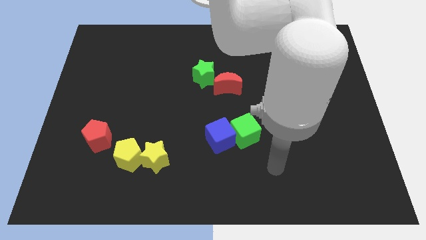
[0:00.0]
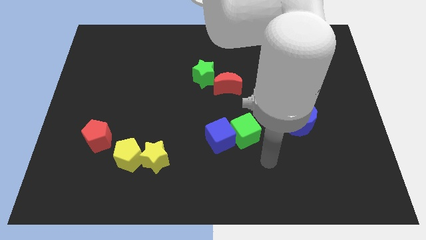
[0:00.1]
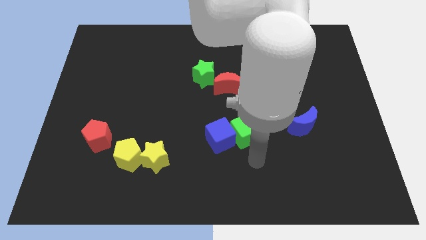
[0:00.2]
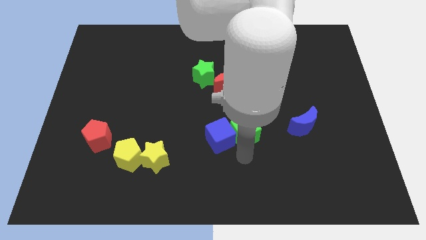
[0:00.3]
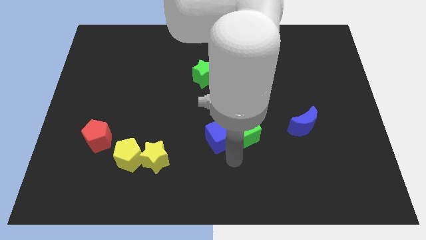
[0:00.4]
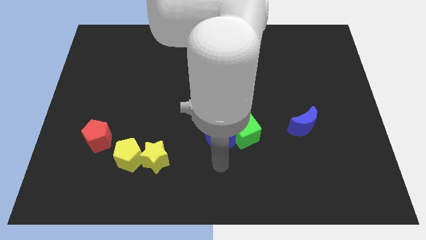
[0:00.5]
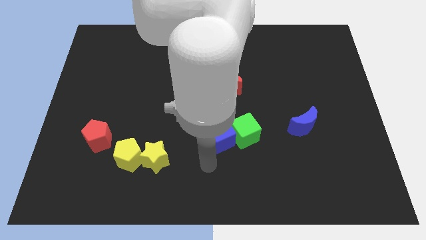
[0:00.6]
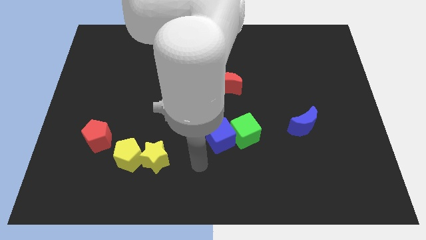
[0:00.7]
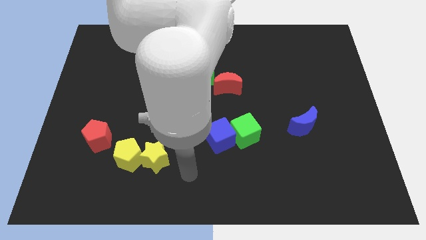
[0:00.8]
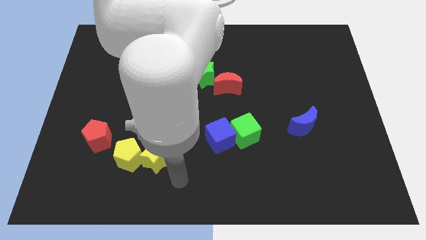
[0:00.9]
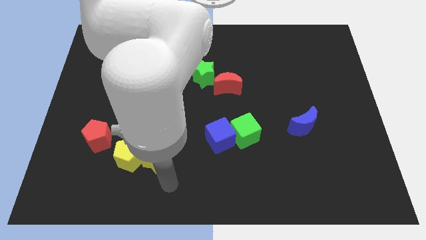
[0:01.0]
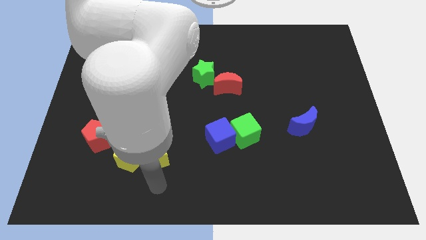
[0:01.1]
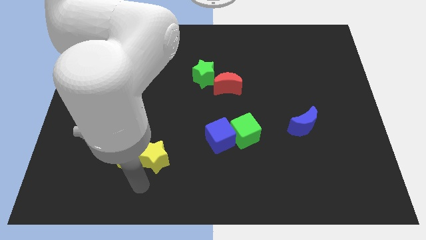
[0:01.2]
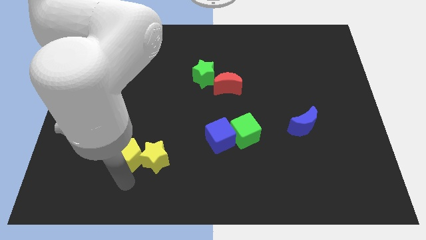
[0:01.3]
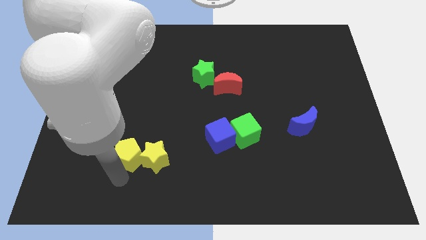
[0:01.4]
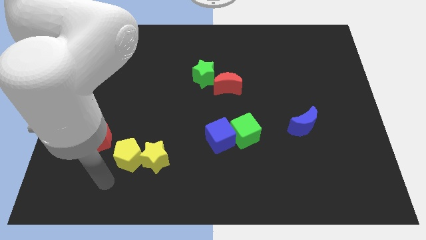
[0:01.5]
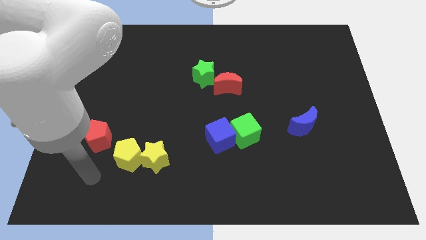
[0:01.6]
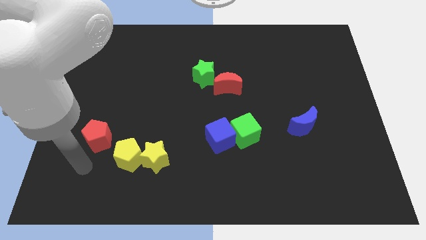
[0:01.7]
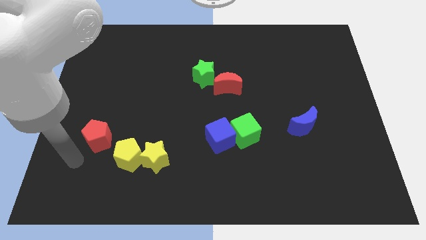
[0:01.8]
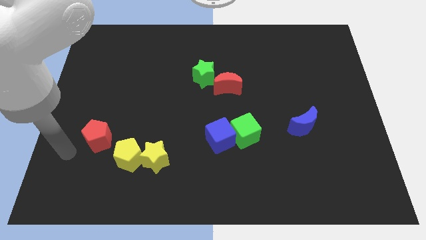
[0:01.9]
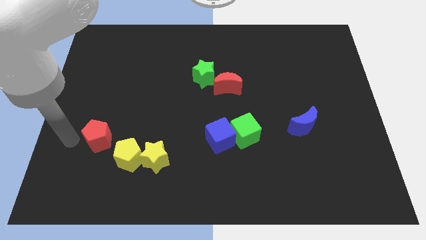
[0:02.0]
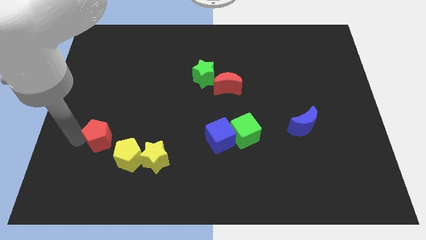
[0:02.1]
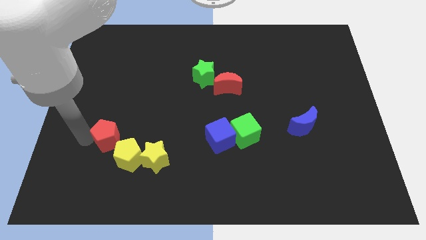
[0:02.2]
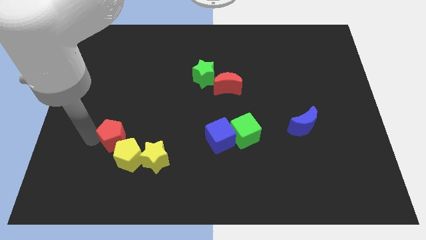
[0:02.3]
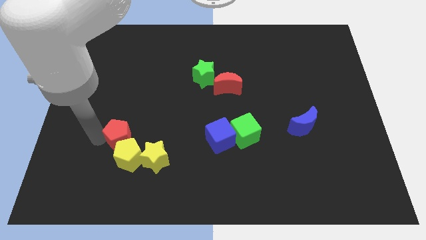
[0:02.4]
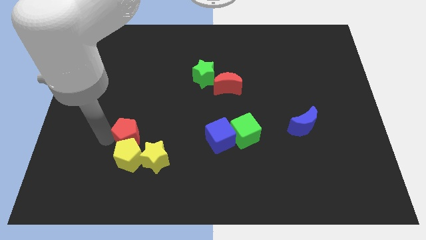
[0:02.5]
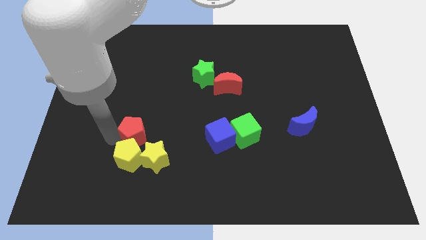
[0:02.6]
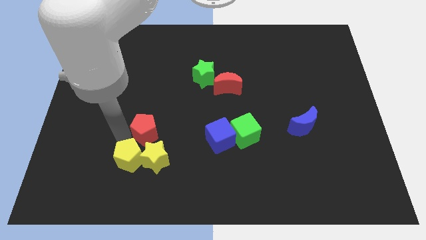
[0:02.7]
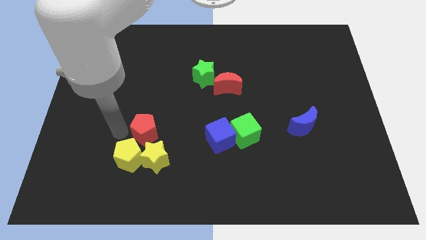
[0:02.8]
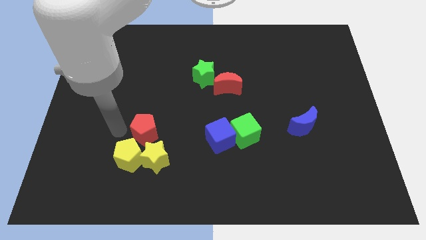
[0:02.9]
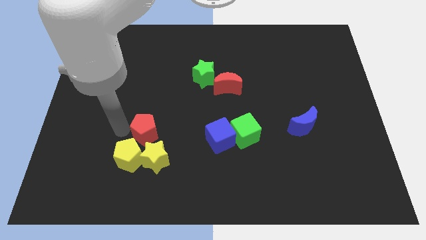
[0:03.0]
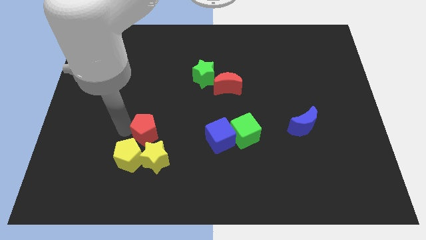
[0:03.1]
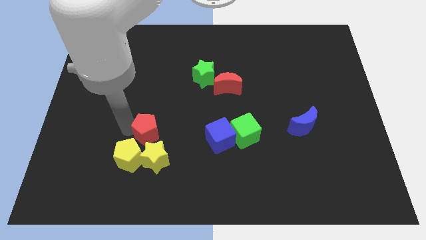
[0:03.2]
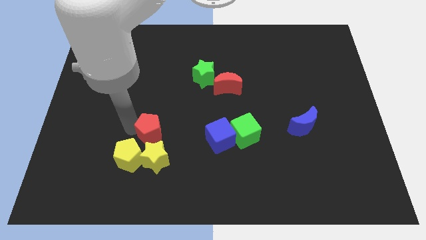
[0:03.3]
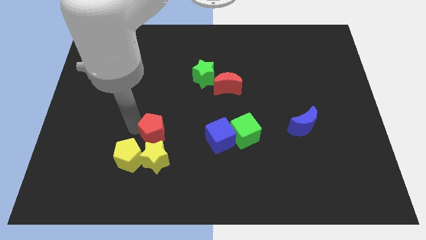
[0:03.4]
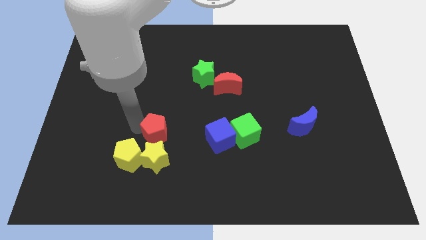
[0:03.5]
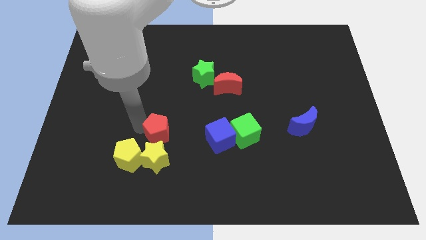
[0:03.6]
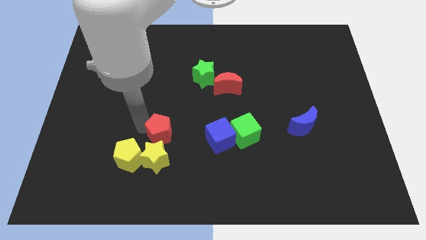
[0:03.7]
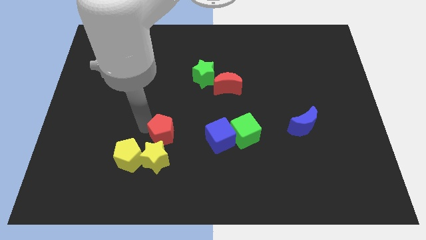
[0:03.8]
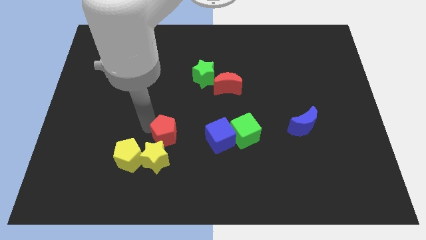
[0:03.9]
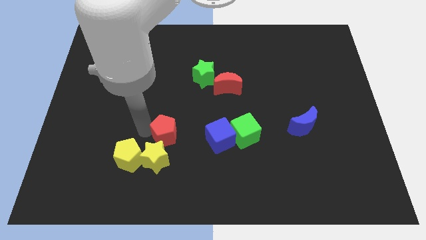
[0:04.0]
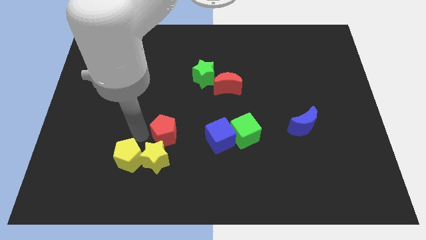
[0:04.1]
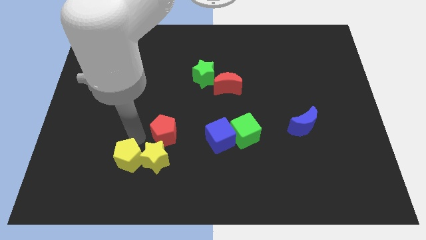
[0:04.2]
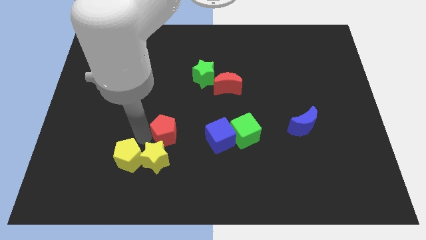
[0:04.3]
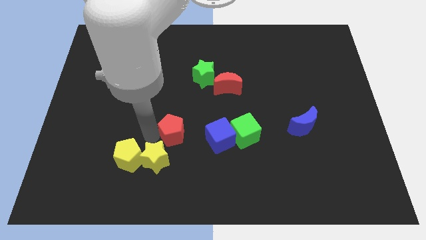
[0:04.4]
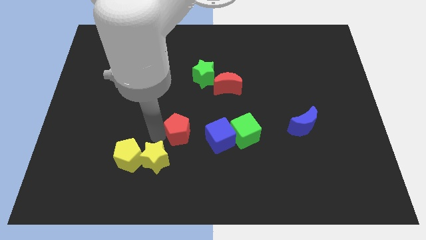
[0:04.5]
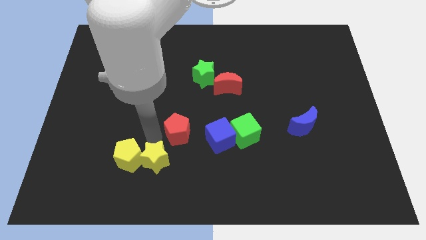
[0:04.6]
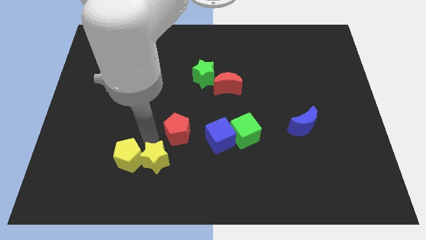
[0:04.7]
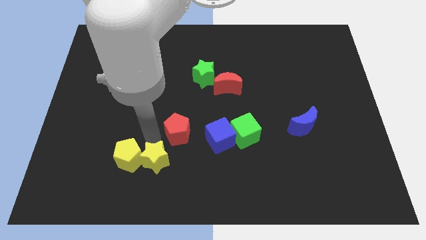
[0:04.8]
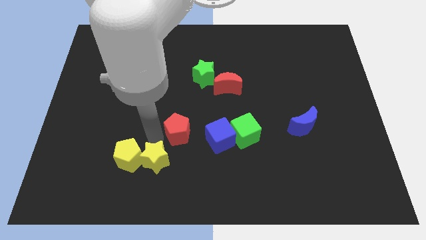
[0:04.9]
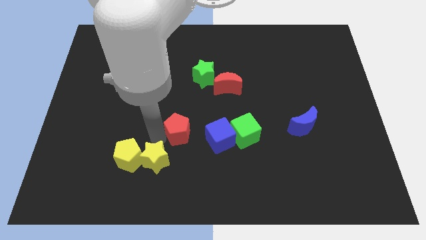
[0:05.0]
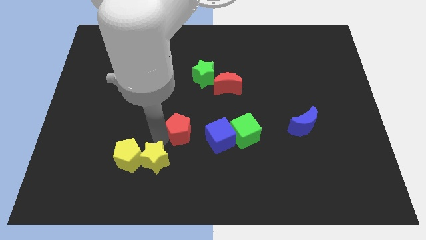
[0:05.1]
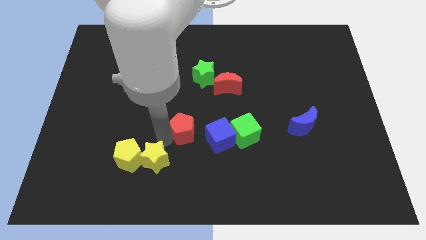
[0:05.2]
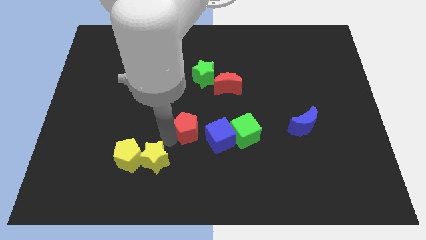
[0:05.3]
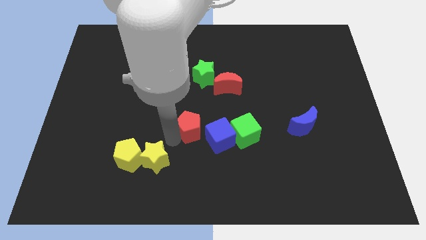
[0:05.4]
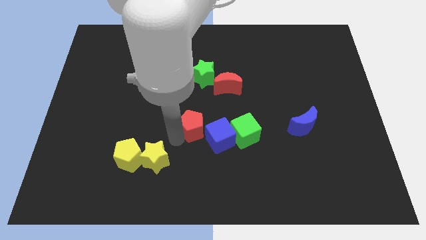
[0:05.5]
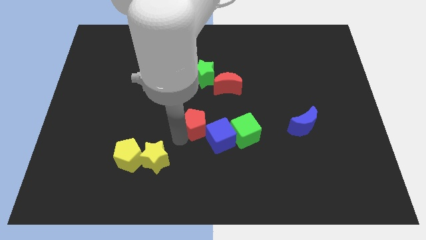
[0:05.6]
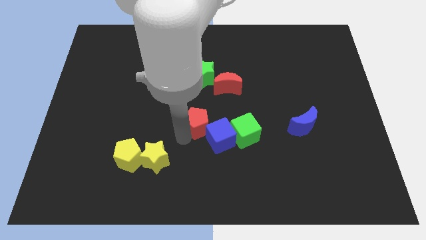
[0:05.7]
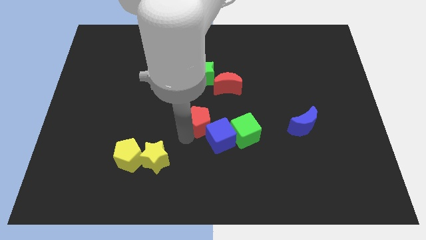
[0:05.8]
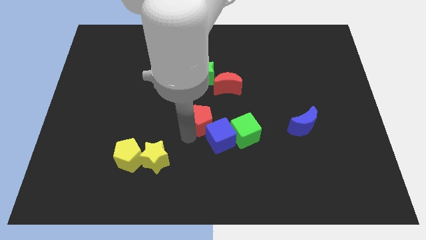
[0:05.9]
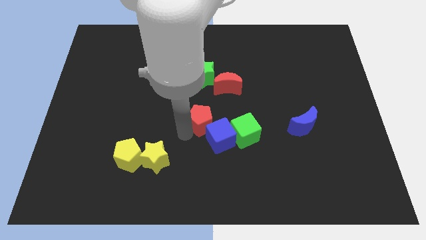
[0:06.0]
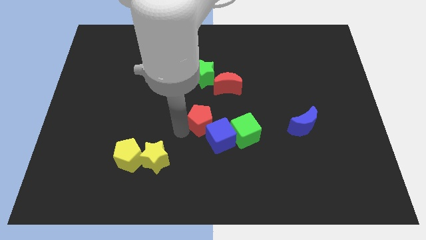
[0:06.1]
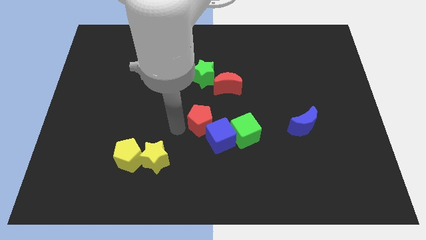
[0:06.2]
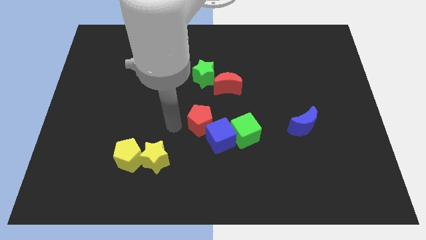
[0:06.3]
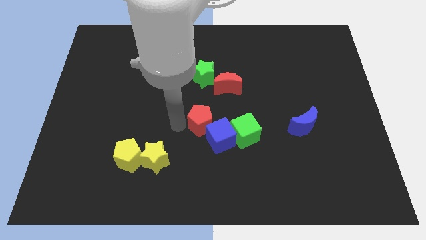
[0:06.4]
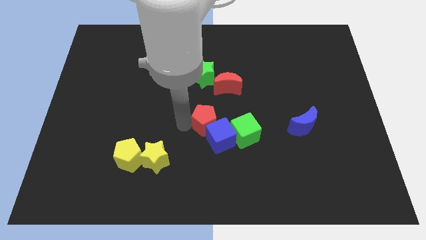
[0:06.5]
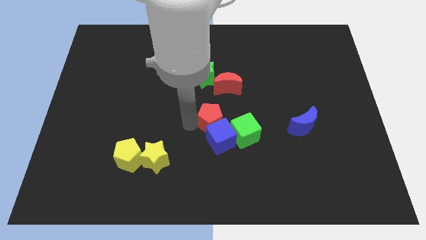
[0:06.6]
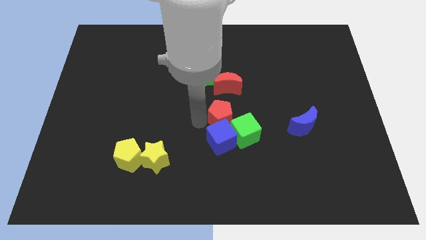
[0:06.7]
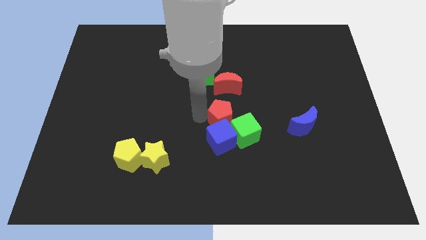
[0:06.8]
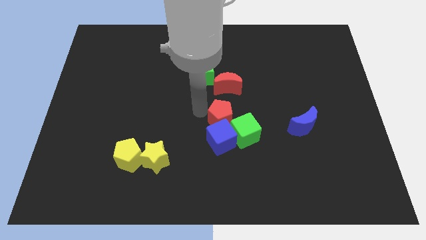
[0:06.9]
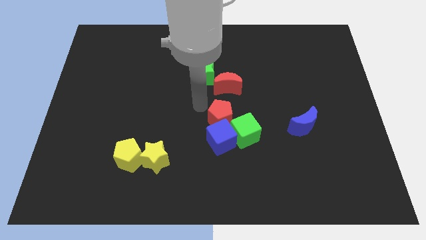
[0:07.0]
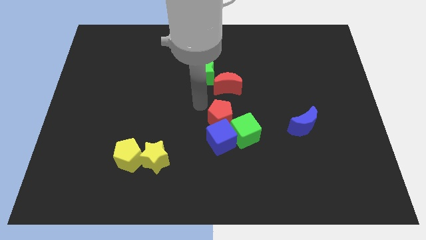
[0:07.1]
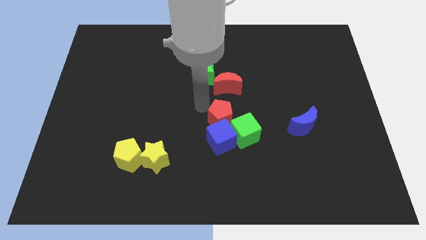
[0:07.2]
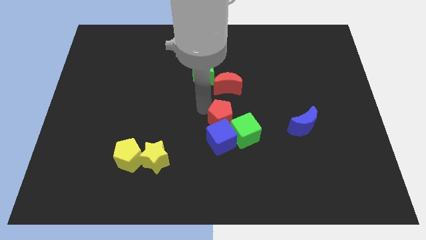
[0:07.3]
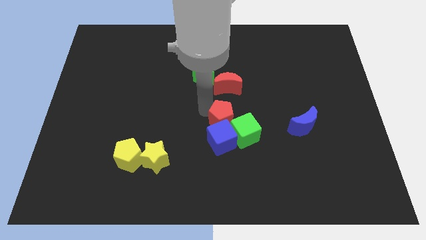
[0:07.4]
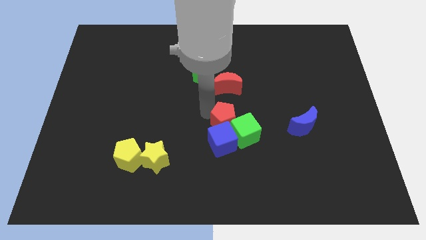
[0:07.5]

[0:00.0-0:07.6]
put the red pentagon next to the green cube
